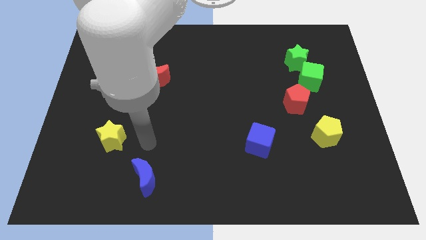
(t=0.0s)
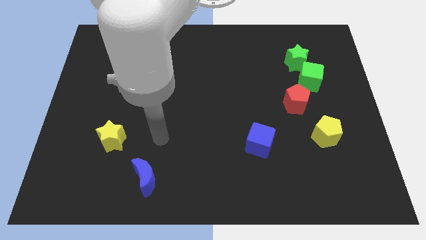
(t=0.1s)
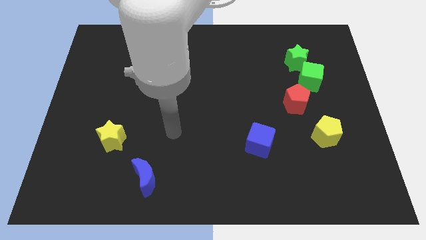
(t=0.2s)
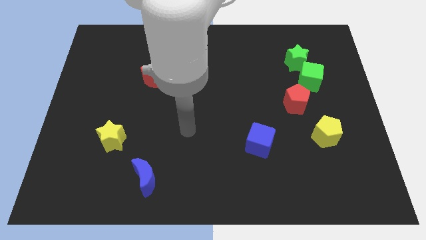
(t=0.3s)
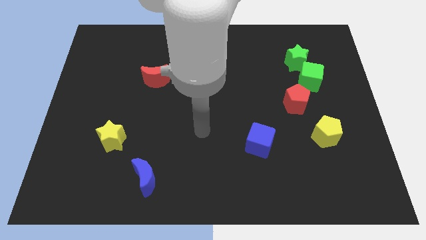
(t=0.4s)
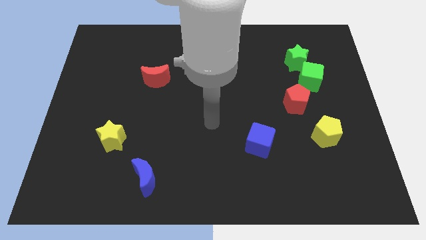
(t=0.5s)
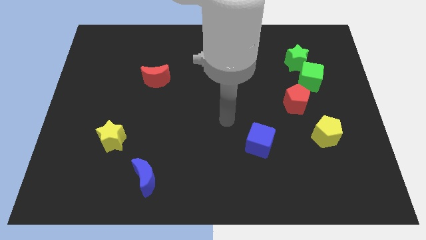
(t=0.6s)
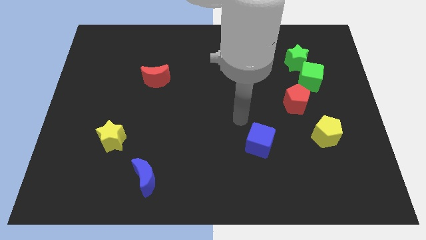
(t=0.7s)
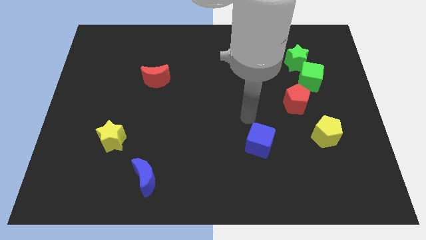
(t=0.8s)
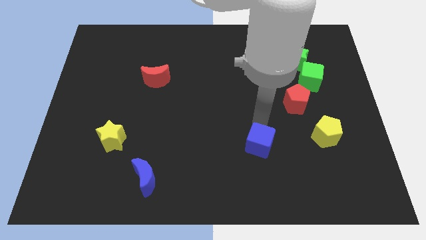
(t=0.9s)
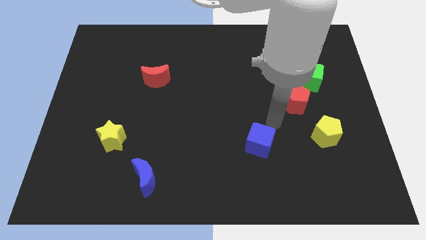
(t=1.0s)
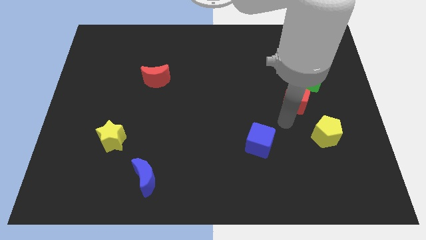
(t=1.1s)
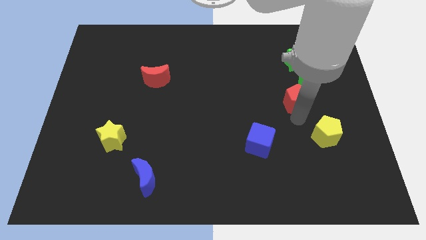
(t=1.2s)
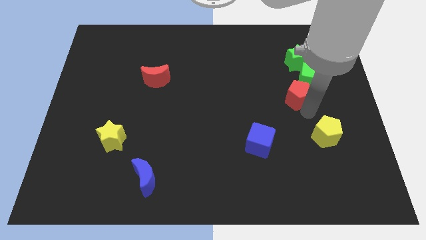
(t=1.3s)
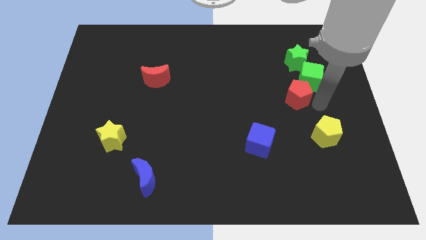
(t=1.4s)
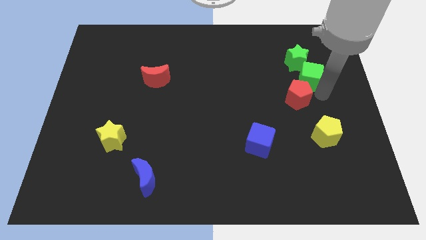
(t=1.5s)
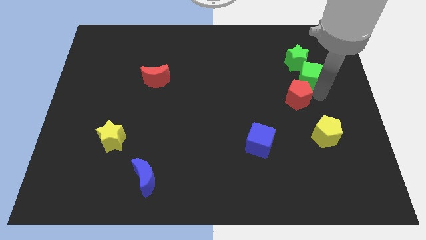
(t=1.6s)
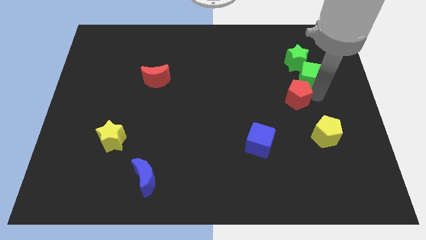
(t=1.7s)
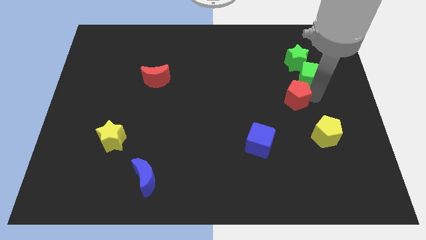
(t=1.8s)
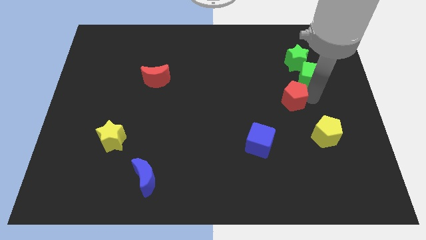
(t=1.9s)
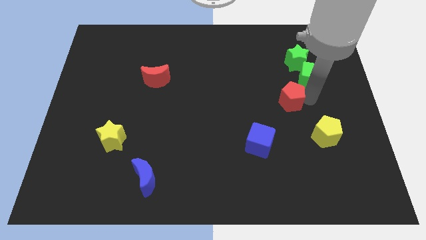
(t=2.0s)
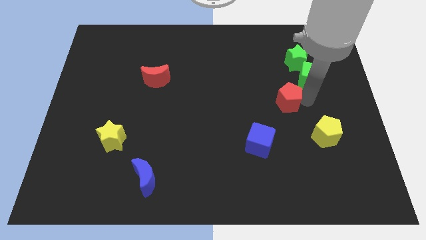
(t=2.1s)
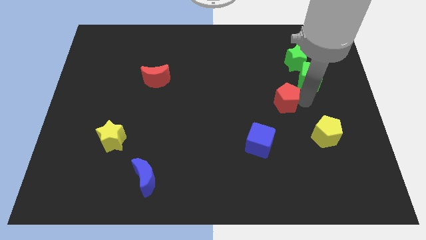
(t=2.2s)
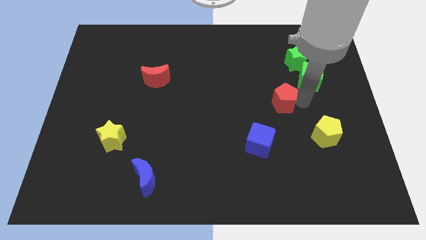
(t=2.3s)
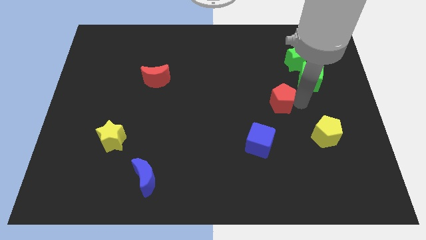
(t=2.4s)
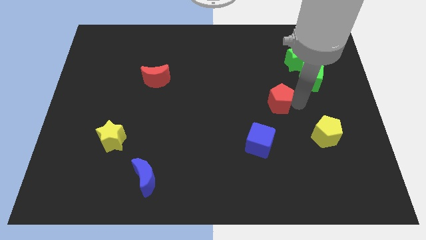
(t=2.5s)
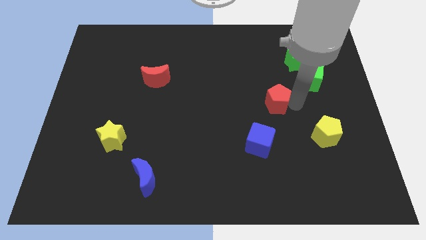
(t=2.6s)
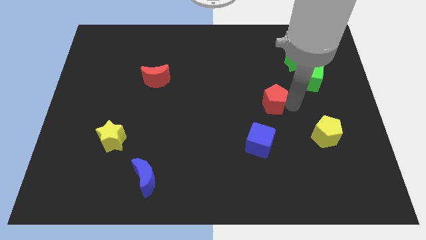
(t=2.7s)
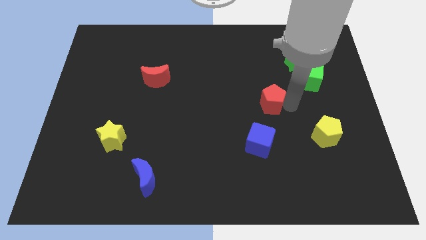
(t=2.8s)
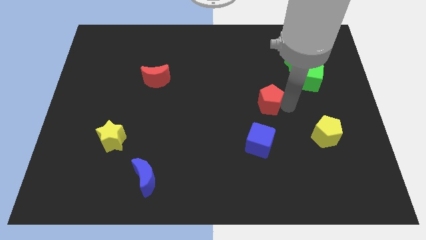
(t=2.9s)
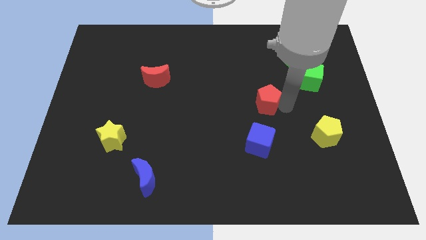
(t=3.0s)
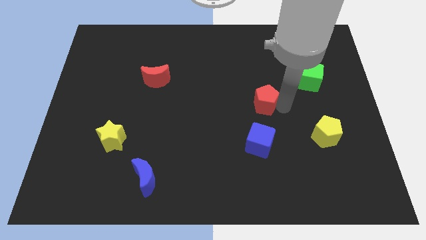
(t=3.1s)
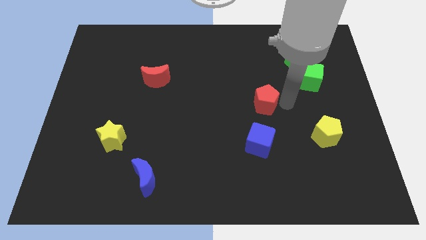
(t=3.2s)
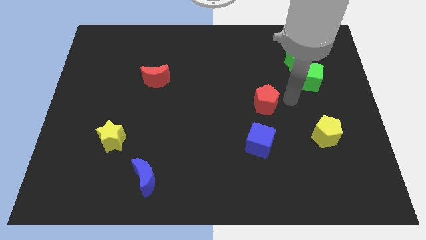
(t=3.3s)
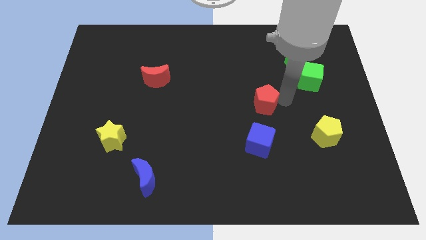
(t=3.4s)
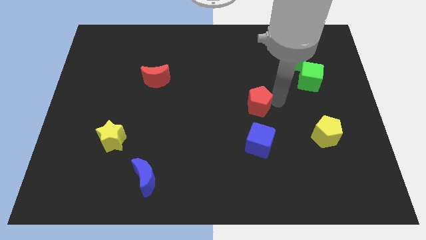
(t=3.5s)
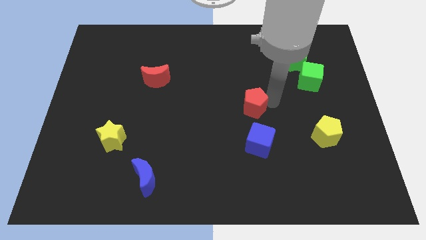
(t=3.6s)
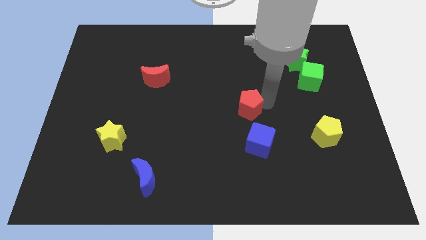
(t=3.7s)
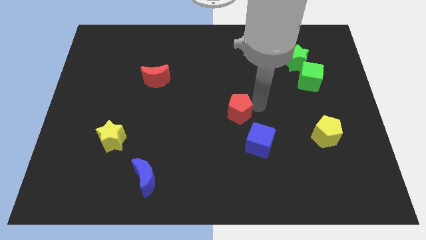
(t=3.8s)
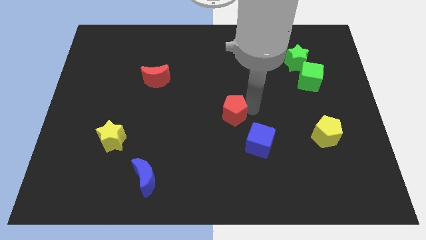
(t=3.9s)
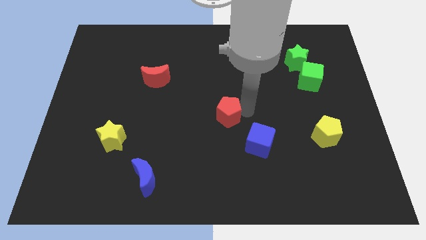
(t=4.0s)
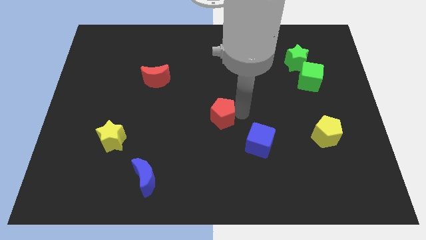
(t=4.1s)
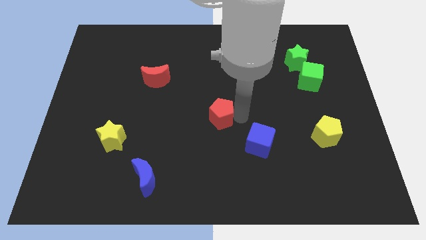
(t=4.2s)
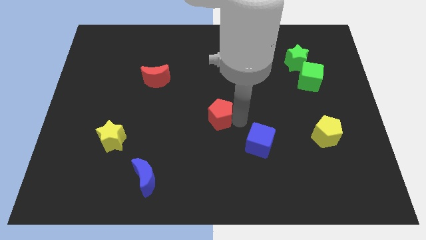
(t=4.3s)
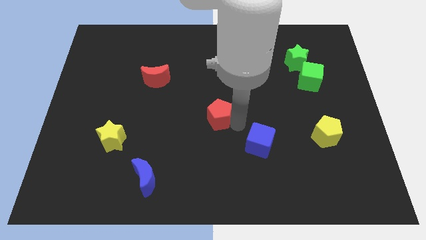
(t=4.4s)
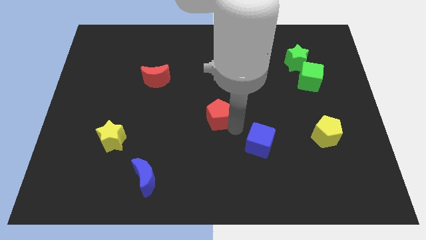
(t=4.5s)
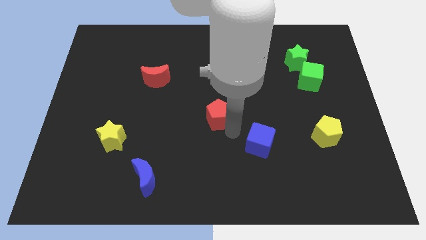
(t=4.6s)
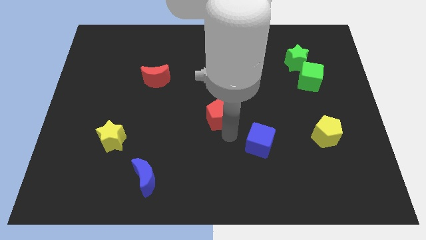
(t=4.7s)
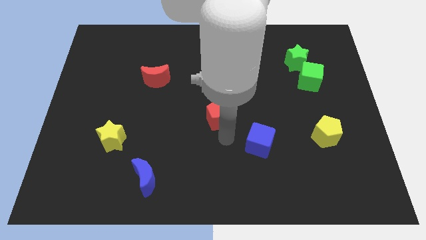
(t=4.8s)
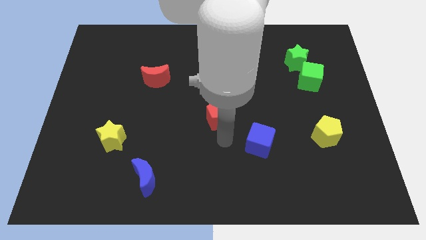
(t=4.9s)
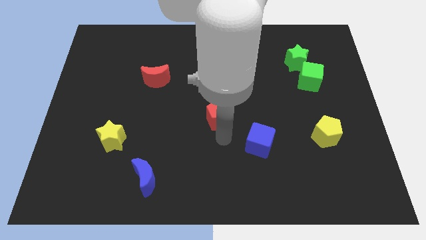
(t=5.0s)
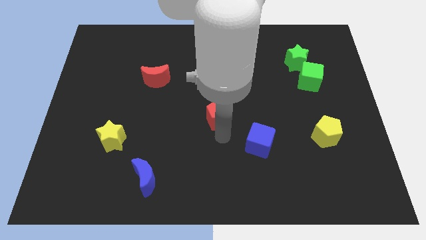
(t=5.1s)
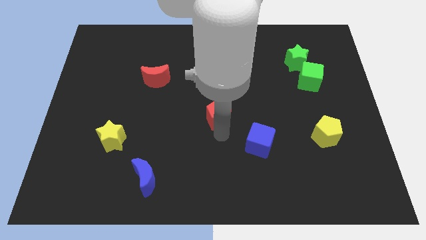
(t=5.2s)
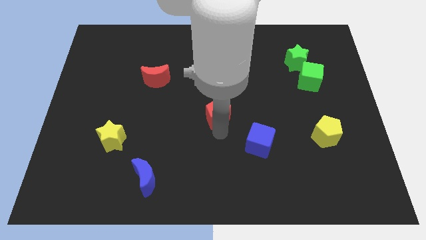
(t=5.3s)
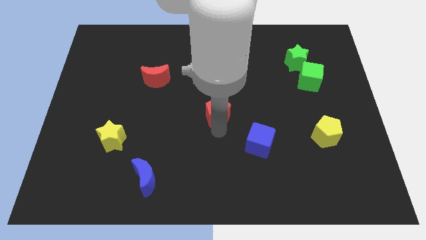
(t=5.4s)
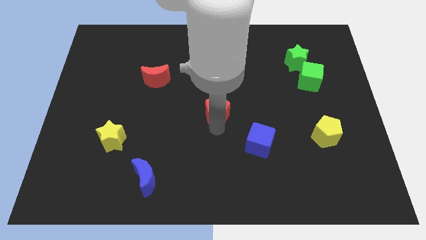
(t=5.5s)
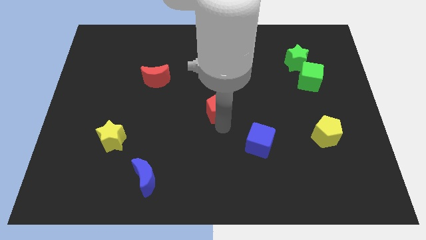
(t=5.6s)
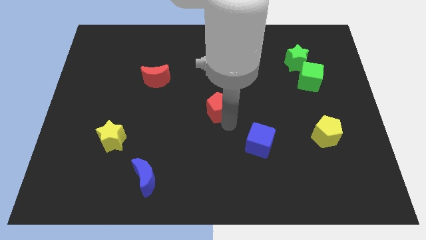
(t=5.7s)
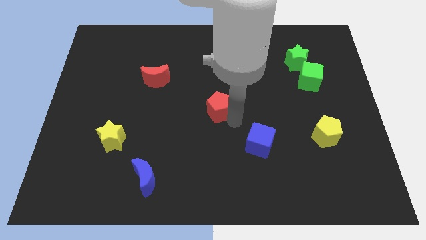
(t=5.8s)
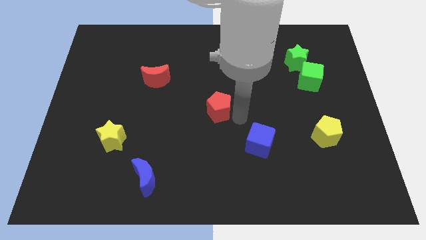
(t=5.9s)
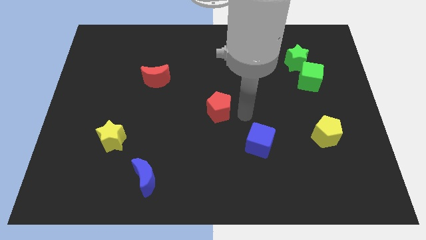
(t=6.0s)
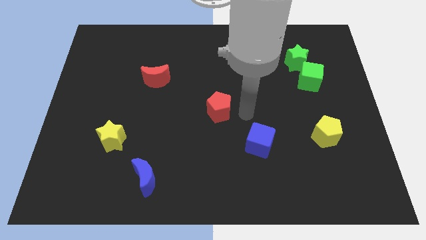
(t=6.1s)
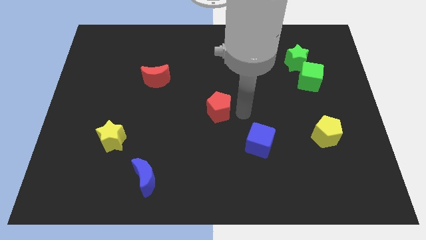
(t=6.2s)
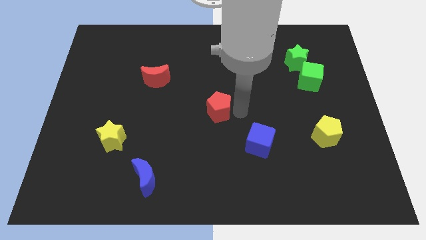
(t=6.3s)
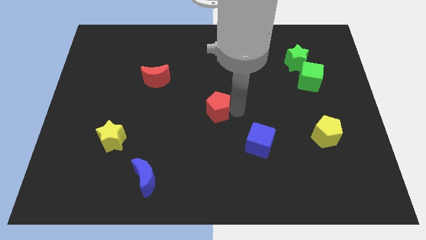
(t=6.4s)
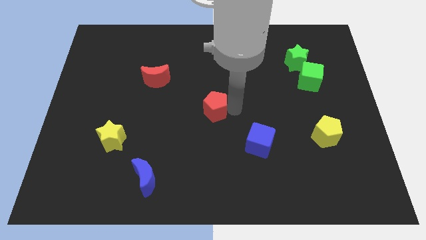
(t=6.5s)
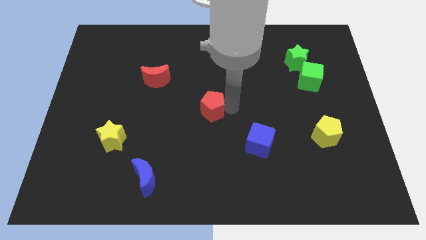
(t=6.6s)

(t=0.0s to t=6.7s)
move the red pentagon to the left

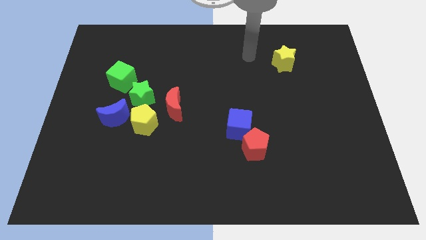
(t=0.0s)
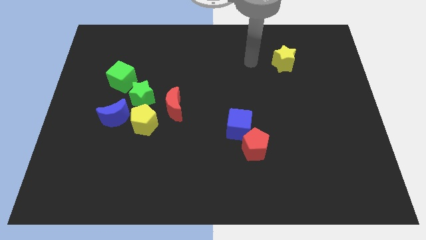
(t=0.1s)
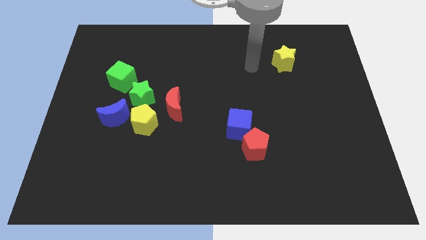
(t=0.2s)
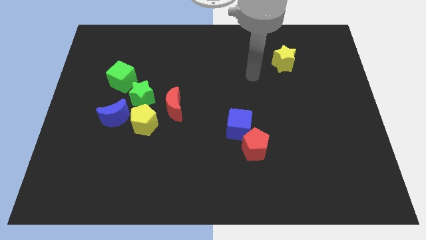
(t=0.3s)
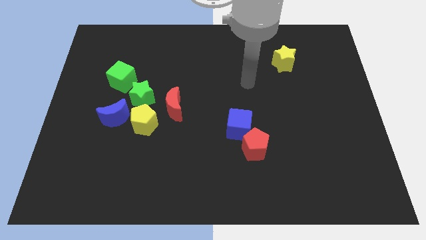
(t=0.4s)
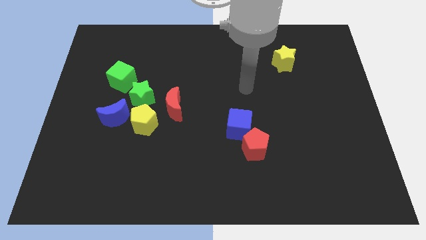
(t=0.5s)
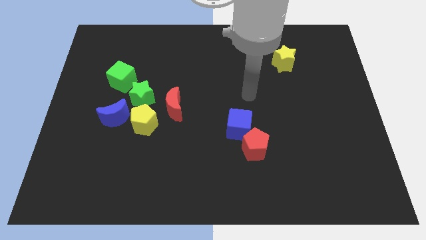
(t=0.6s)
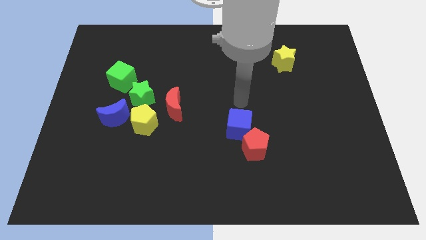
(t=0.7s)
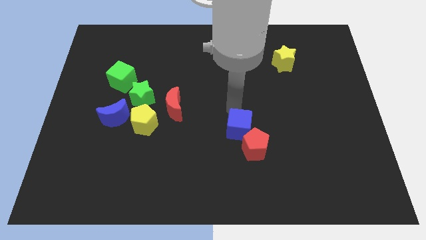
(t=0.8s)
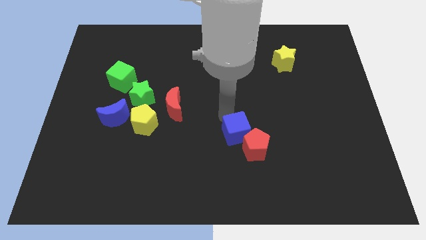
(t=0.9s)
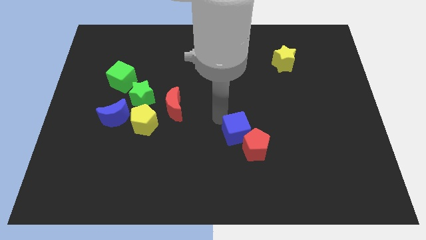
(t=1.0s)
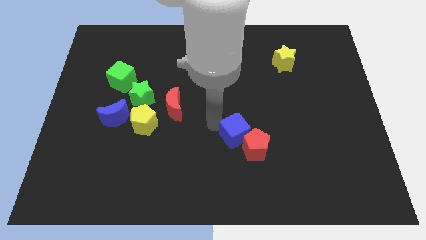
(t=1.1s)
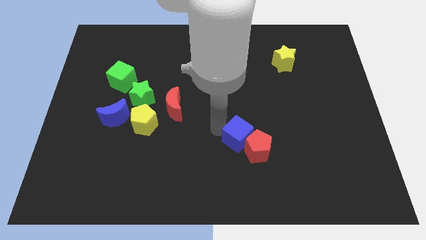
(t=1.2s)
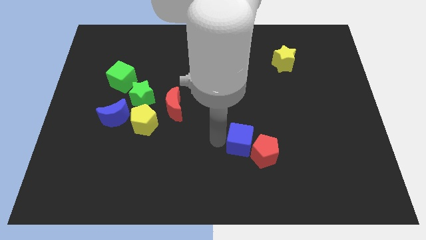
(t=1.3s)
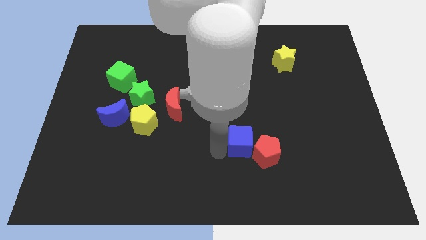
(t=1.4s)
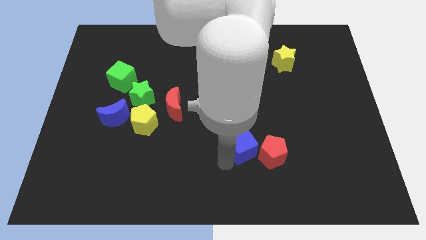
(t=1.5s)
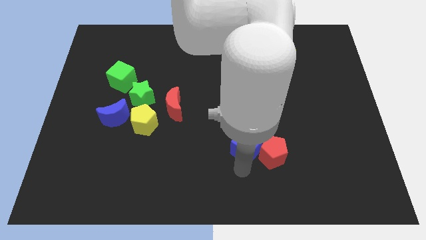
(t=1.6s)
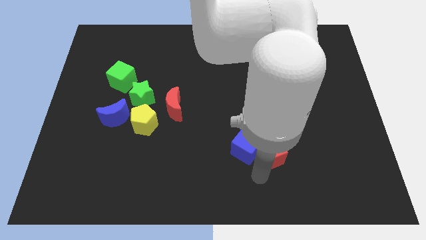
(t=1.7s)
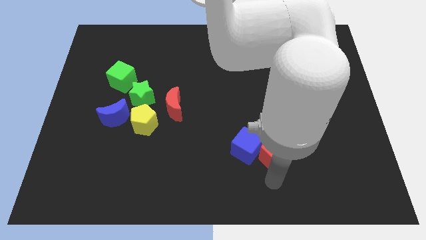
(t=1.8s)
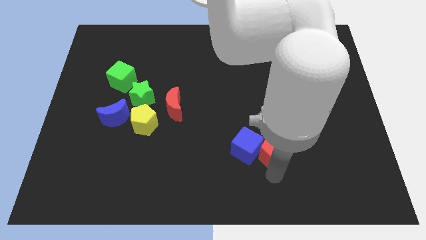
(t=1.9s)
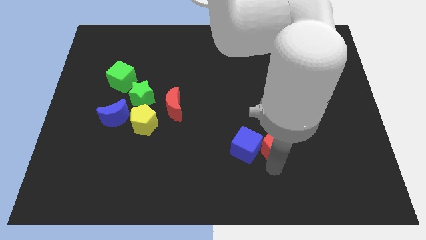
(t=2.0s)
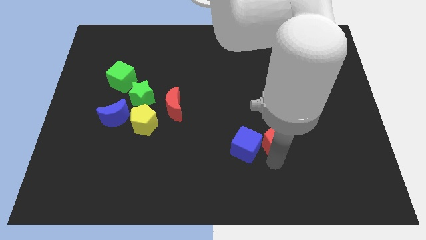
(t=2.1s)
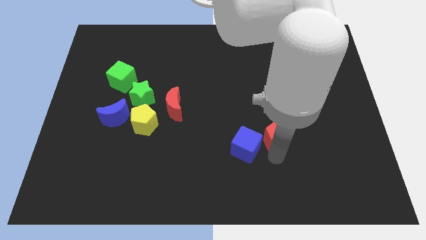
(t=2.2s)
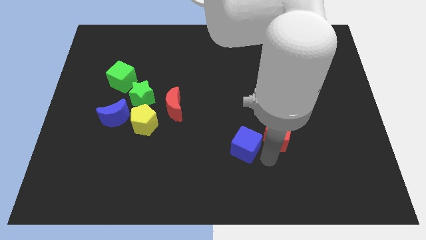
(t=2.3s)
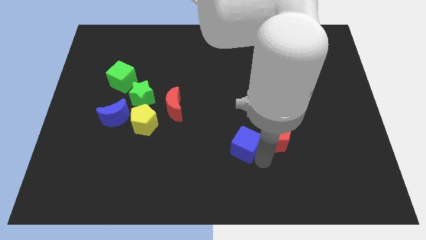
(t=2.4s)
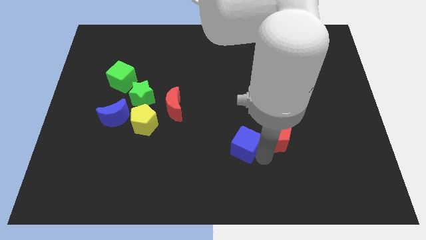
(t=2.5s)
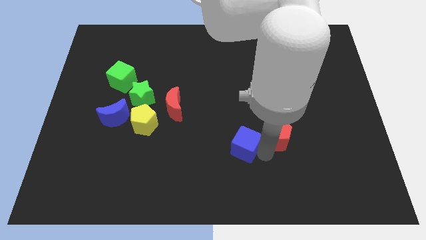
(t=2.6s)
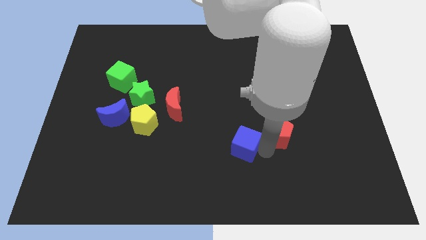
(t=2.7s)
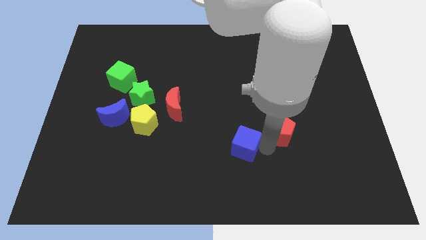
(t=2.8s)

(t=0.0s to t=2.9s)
slightly slide the red pentagon up and then right
